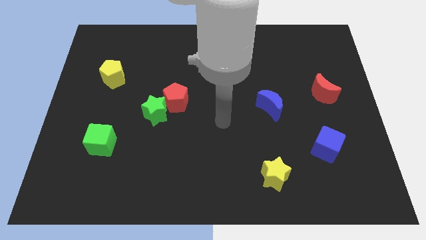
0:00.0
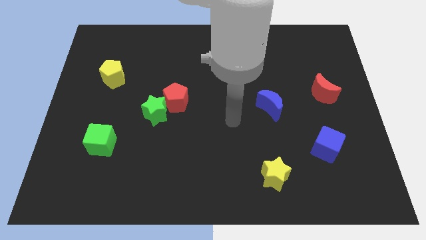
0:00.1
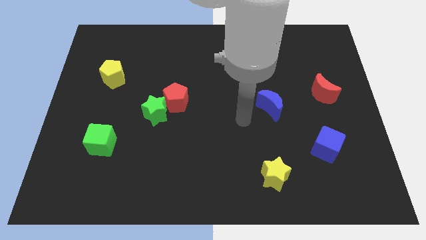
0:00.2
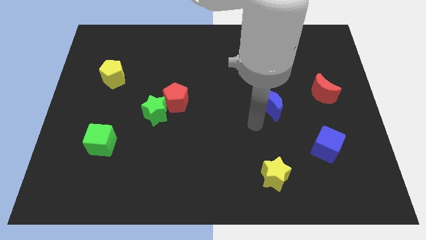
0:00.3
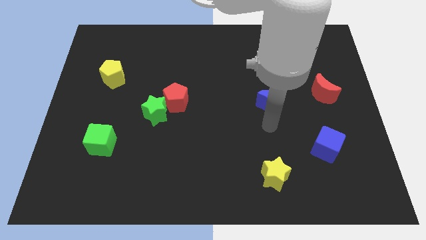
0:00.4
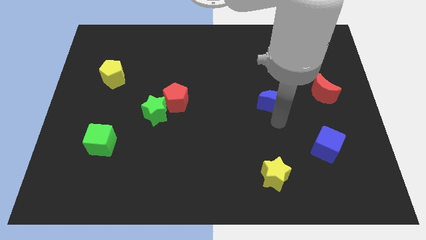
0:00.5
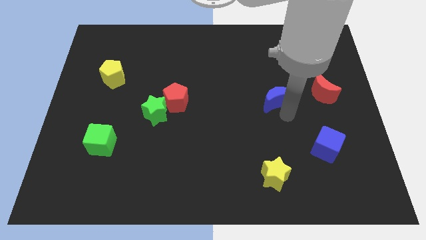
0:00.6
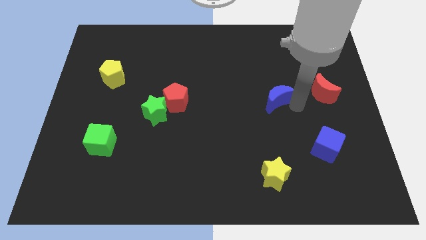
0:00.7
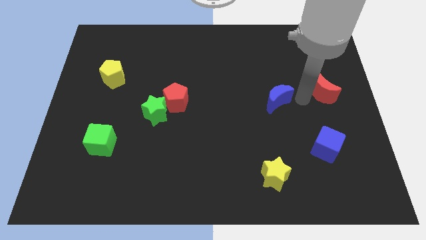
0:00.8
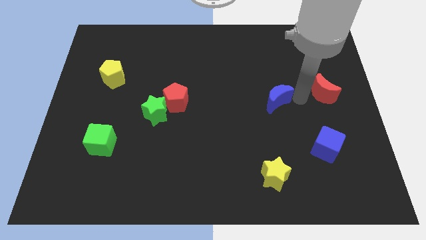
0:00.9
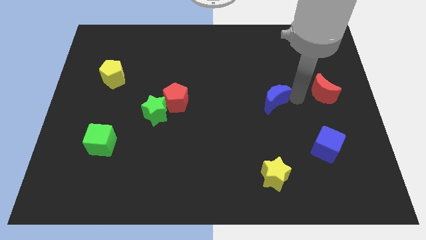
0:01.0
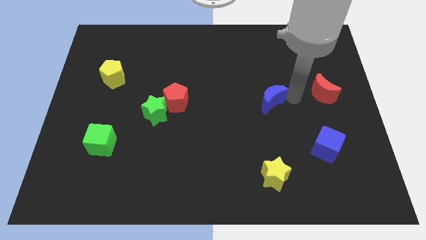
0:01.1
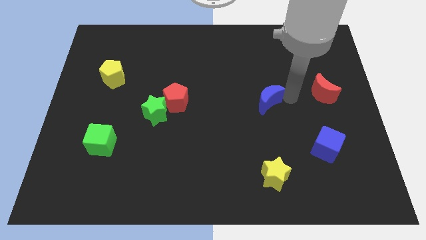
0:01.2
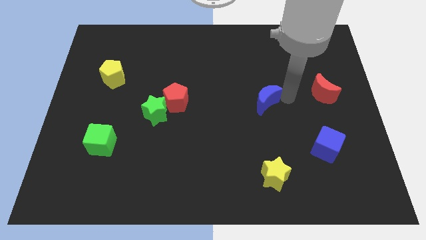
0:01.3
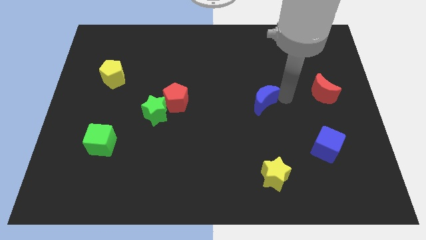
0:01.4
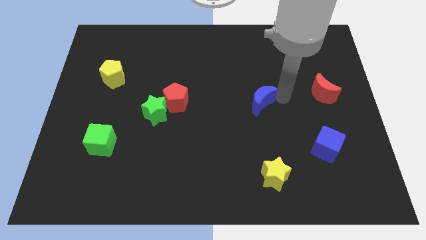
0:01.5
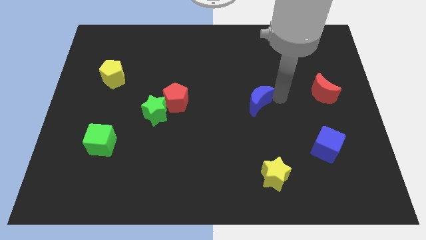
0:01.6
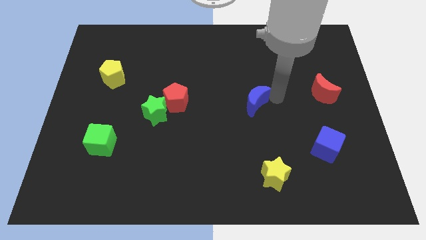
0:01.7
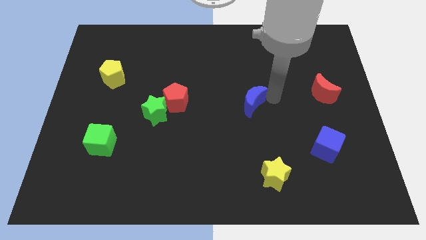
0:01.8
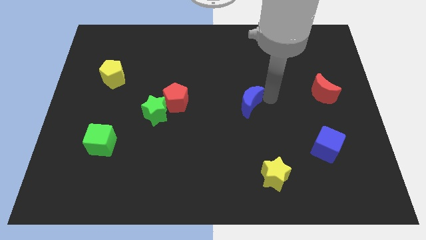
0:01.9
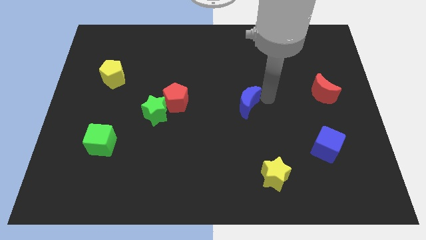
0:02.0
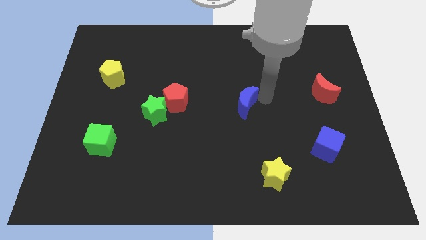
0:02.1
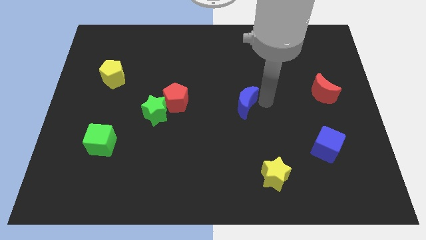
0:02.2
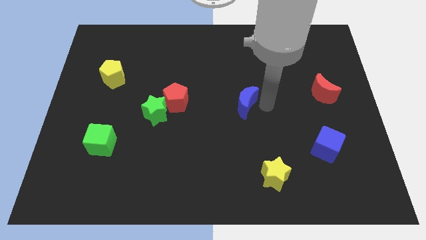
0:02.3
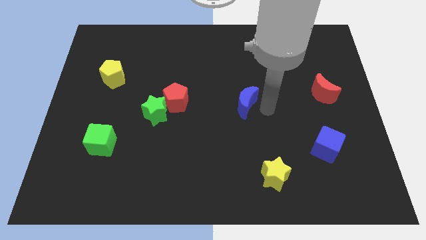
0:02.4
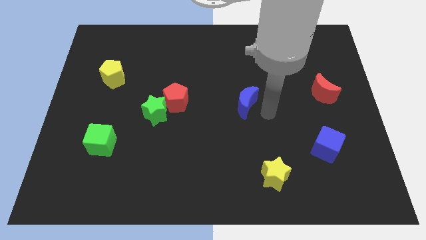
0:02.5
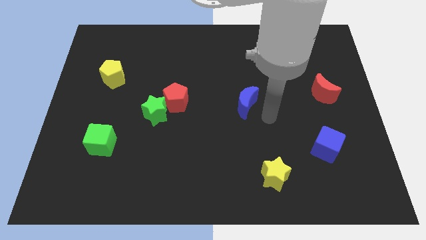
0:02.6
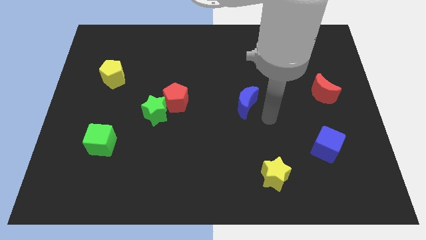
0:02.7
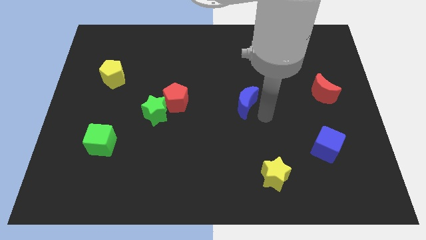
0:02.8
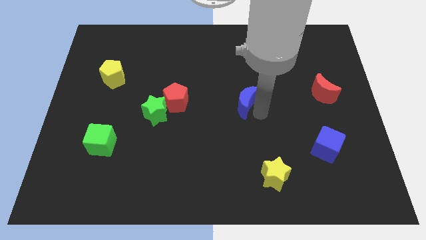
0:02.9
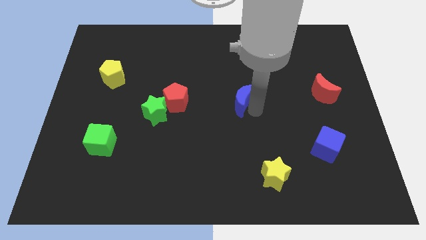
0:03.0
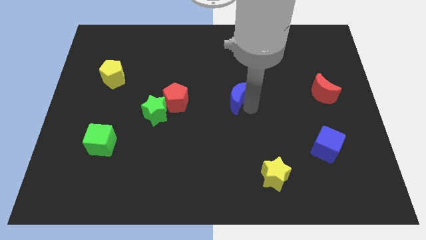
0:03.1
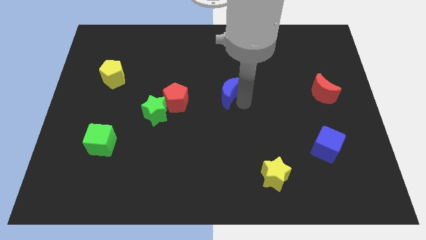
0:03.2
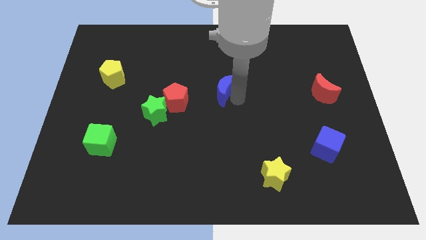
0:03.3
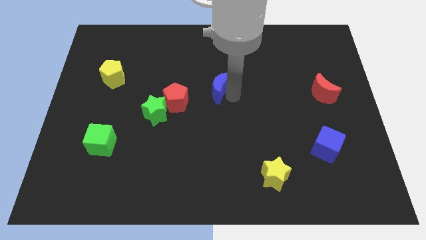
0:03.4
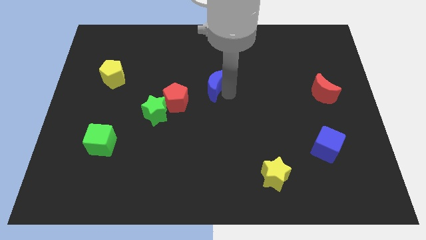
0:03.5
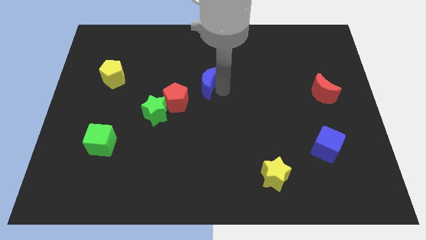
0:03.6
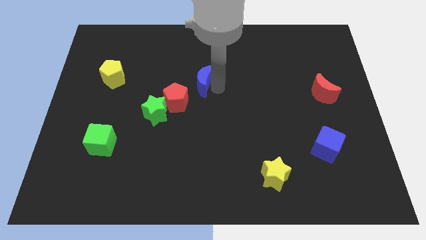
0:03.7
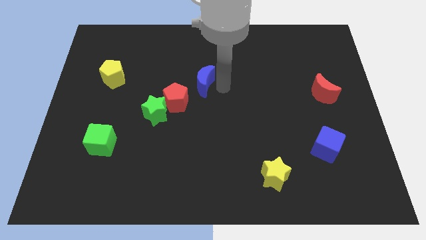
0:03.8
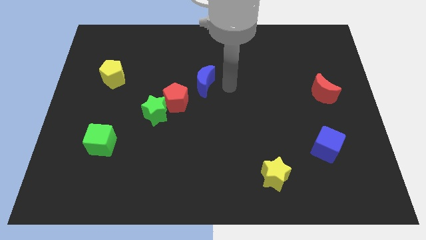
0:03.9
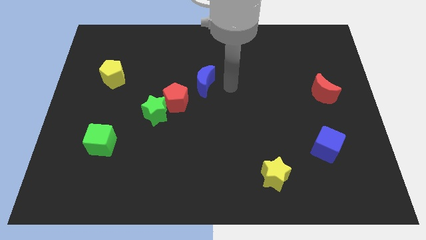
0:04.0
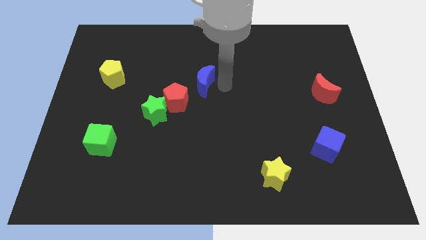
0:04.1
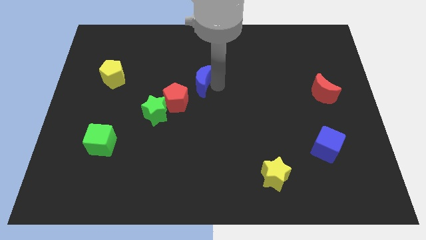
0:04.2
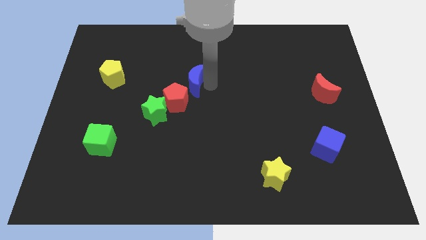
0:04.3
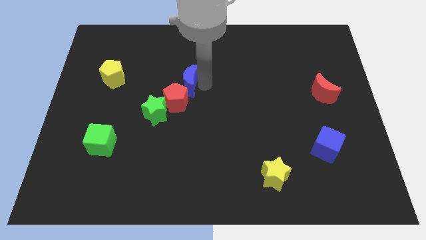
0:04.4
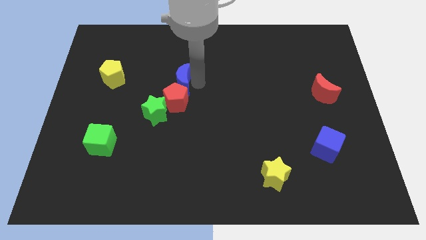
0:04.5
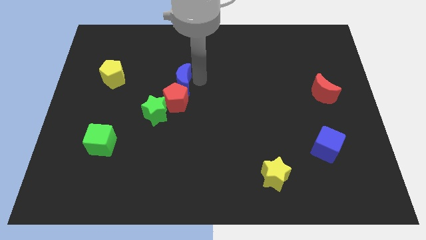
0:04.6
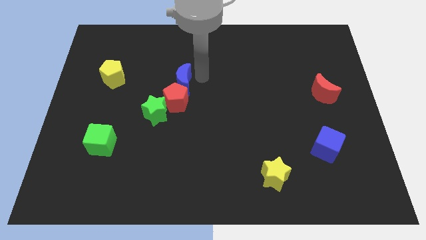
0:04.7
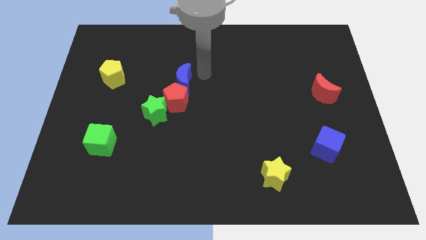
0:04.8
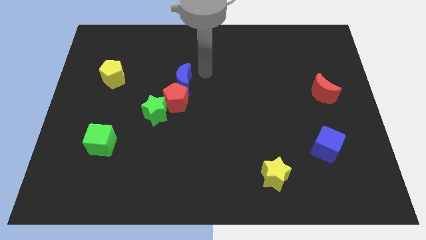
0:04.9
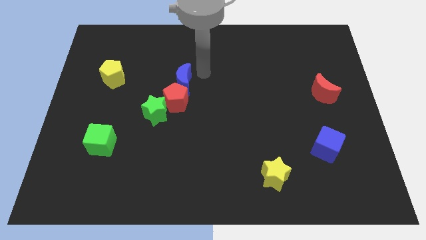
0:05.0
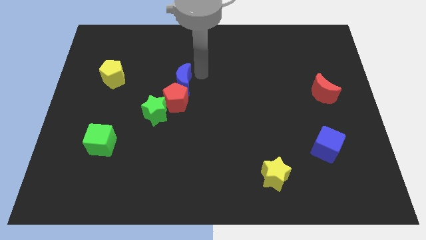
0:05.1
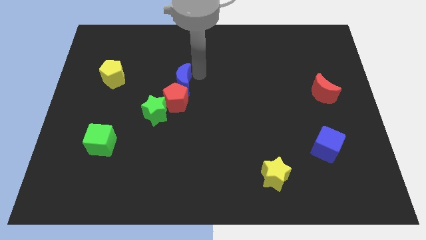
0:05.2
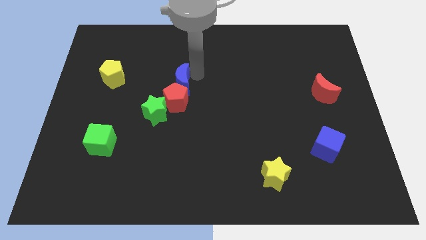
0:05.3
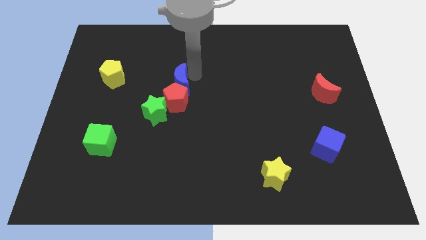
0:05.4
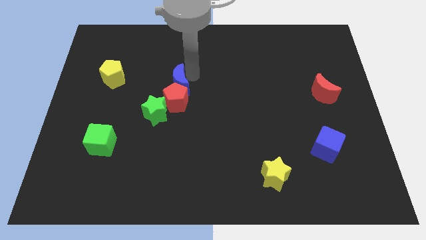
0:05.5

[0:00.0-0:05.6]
push the blue moon to the left

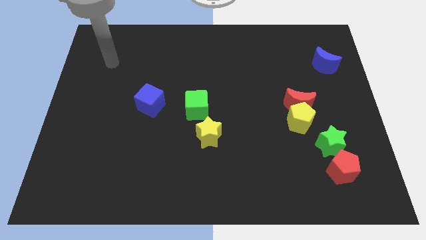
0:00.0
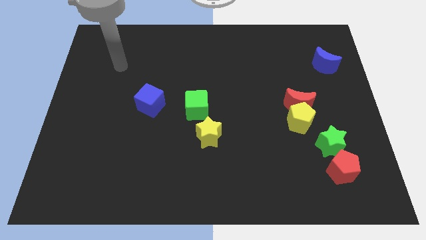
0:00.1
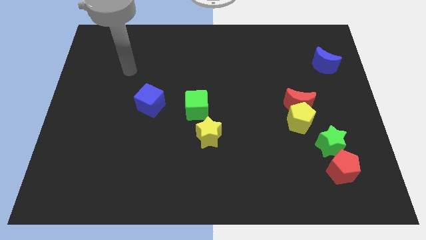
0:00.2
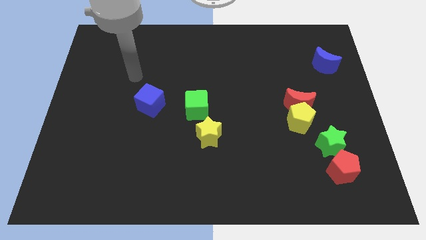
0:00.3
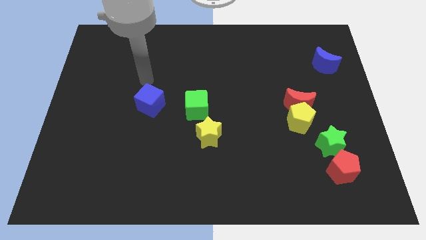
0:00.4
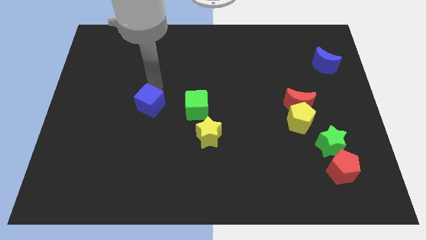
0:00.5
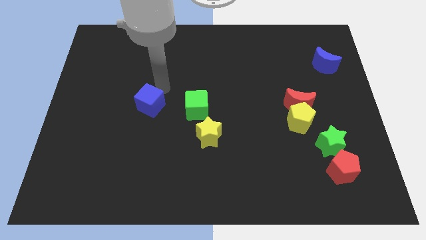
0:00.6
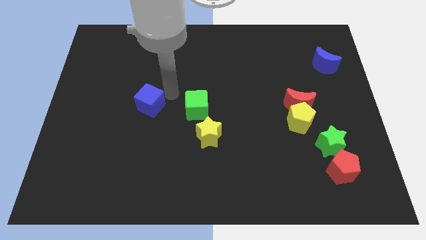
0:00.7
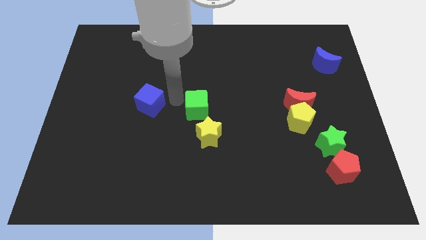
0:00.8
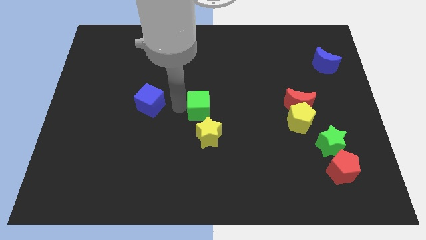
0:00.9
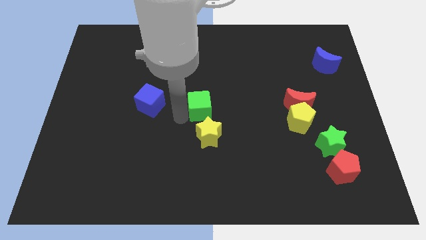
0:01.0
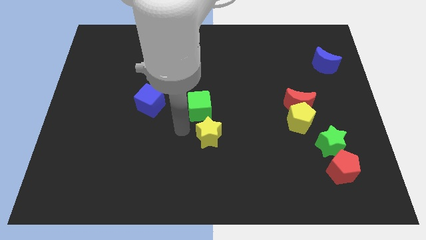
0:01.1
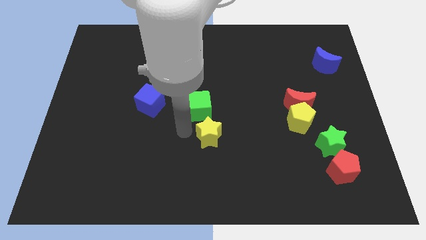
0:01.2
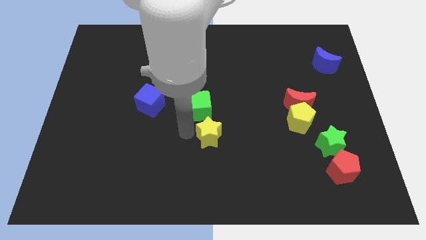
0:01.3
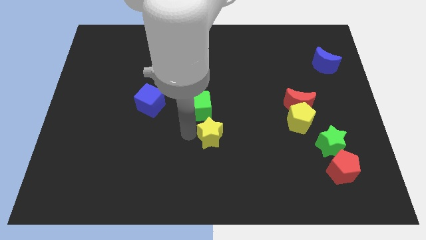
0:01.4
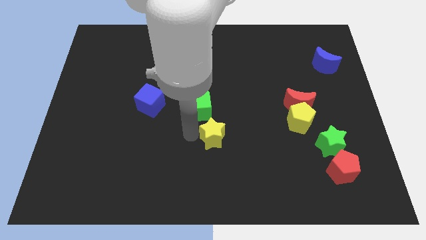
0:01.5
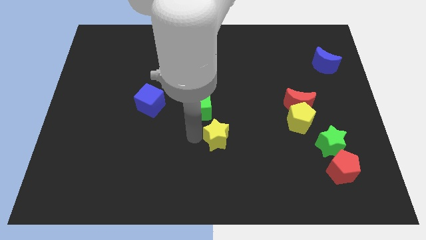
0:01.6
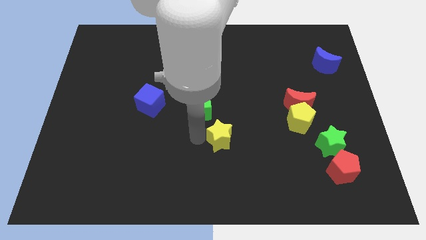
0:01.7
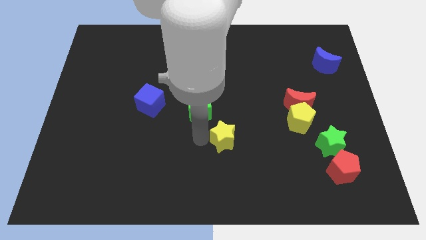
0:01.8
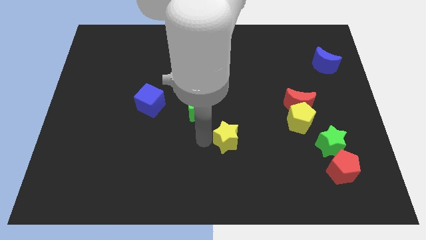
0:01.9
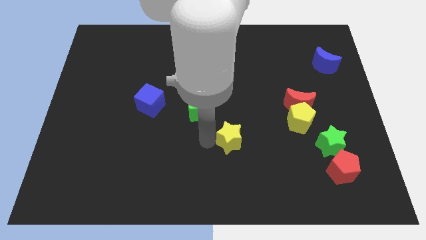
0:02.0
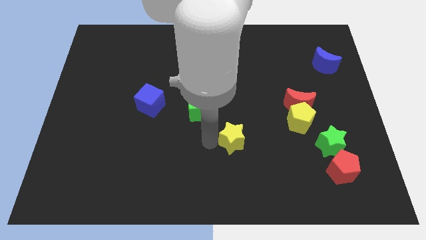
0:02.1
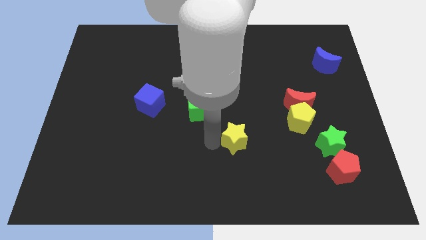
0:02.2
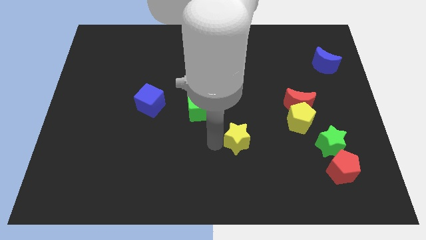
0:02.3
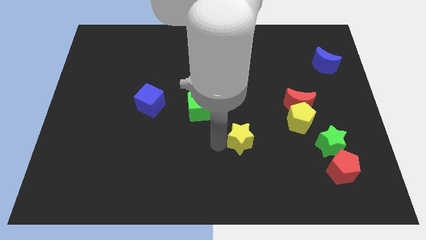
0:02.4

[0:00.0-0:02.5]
push the yellow star to the right a bit

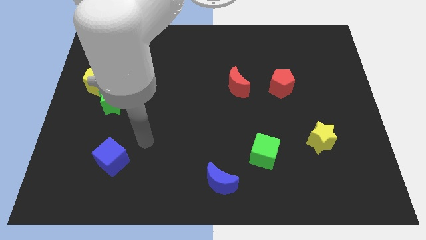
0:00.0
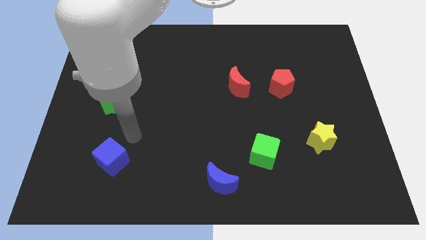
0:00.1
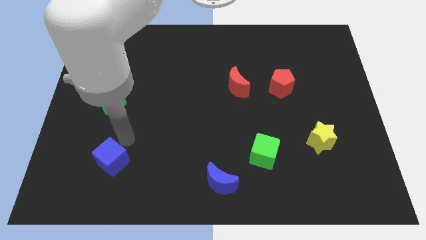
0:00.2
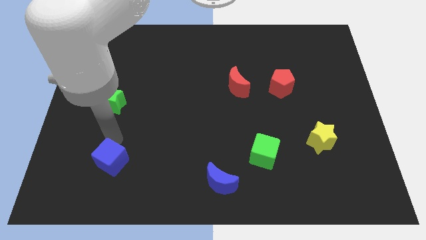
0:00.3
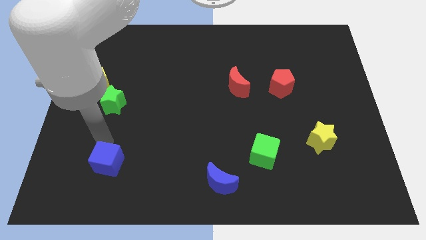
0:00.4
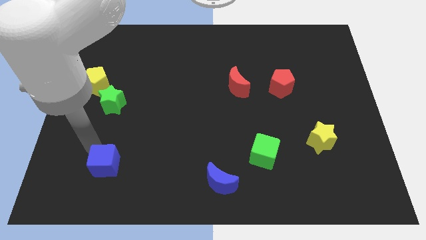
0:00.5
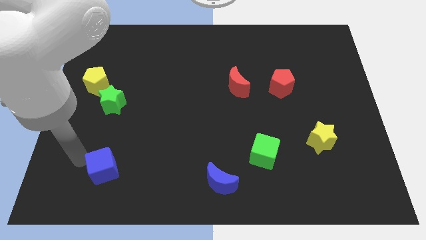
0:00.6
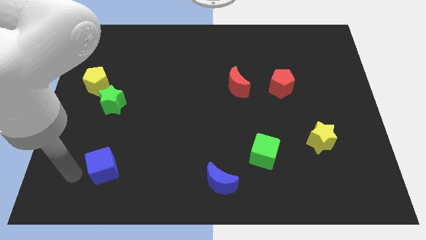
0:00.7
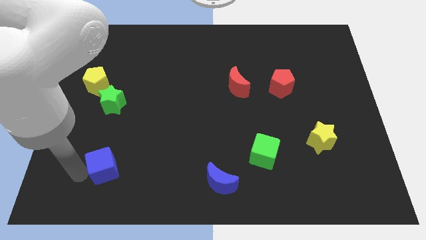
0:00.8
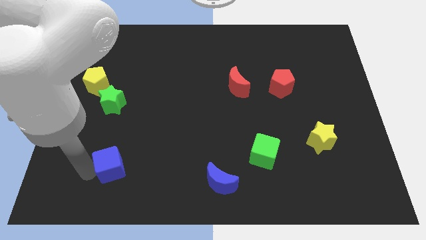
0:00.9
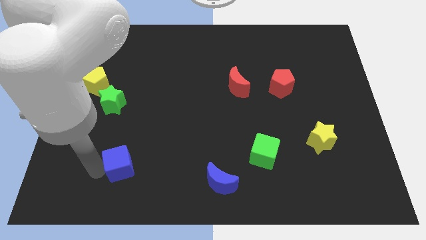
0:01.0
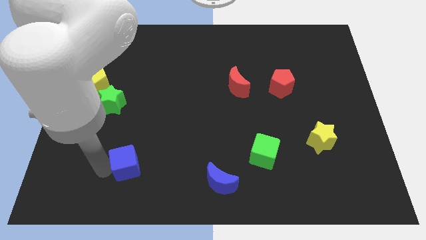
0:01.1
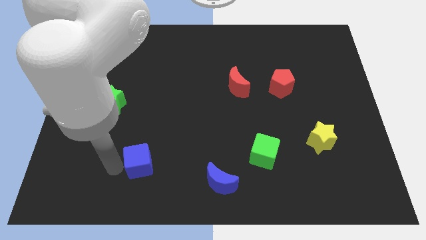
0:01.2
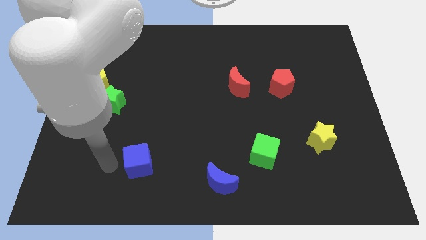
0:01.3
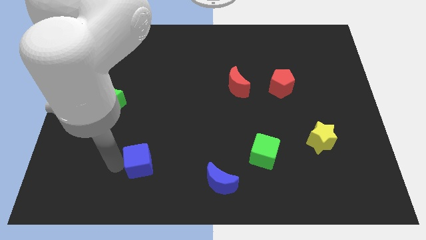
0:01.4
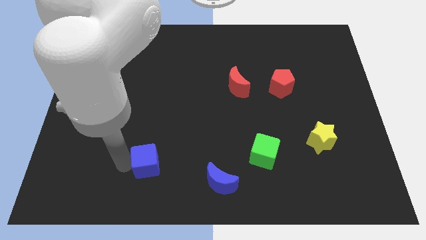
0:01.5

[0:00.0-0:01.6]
move the blue cube to the right a little bit
